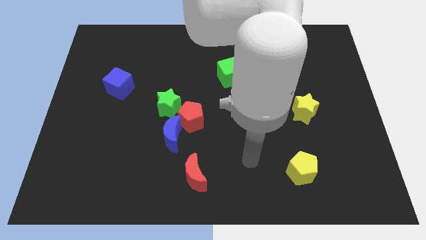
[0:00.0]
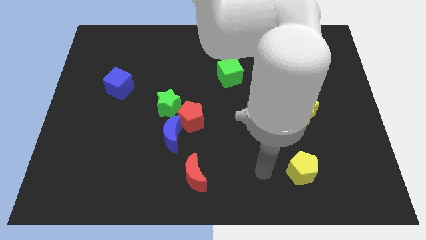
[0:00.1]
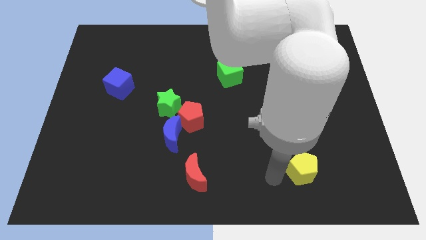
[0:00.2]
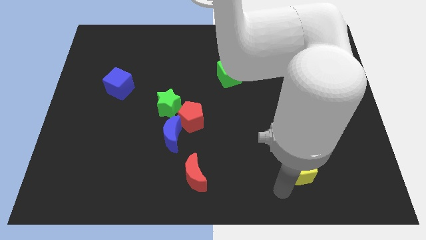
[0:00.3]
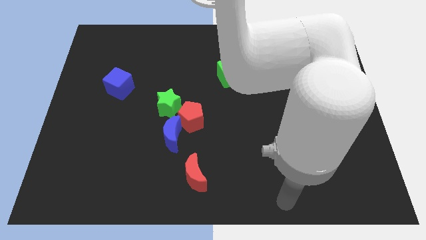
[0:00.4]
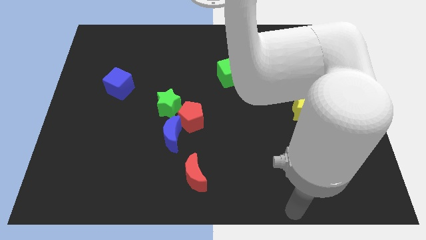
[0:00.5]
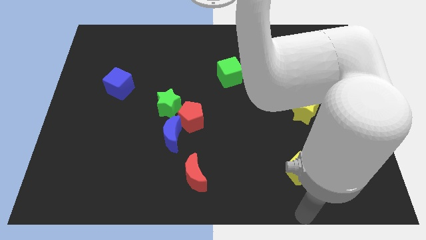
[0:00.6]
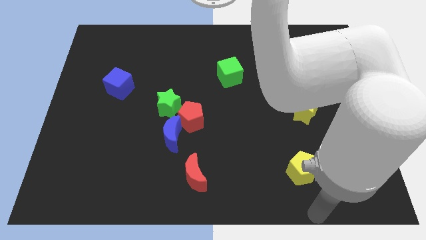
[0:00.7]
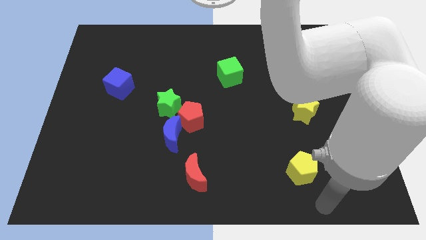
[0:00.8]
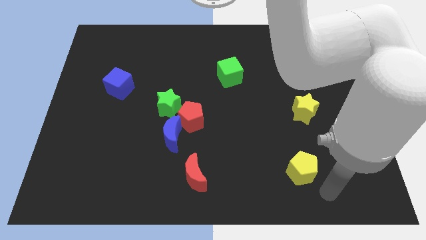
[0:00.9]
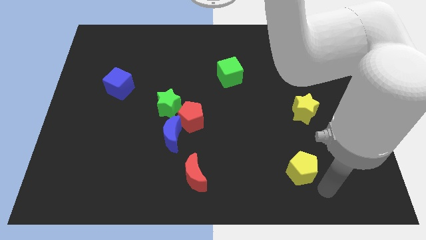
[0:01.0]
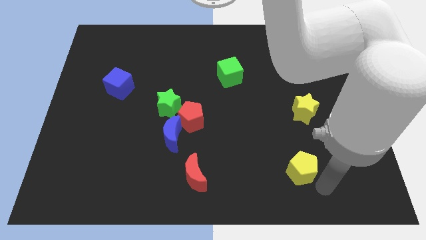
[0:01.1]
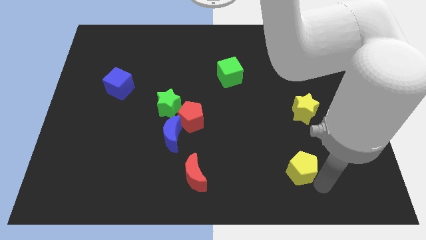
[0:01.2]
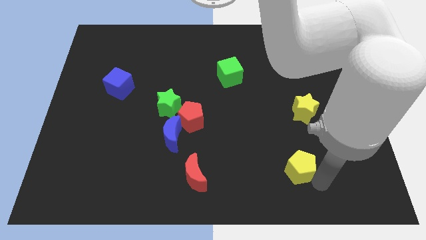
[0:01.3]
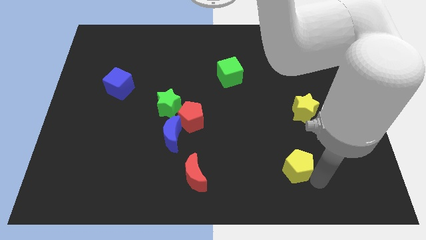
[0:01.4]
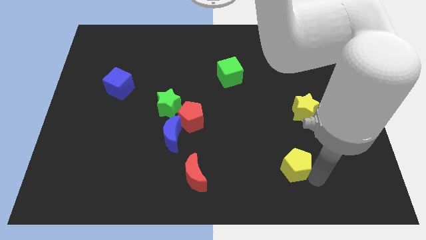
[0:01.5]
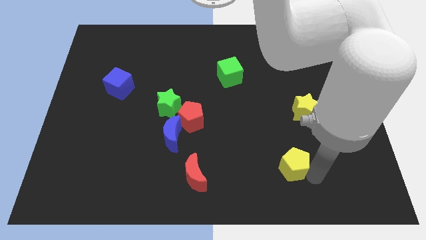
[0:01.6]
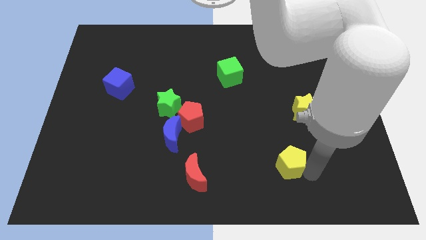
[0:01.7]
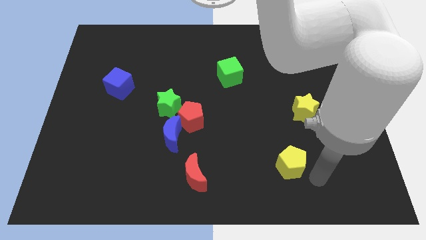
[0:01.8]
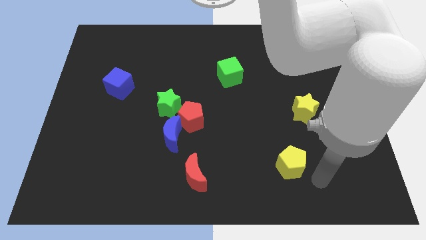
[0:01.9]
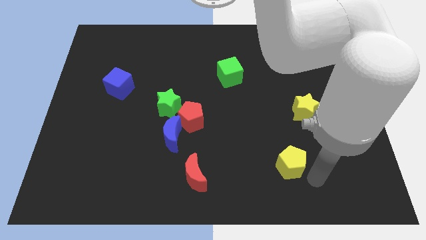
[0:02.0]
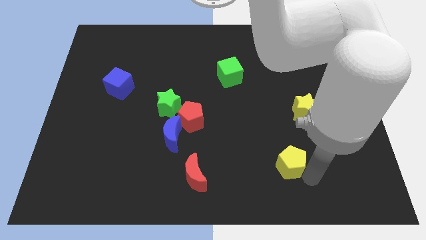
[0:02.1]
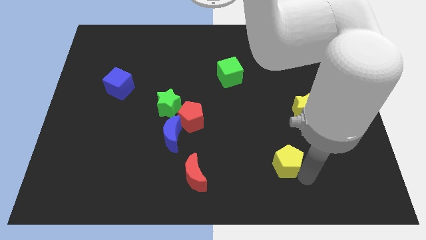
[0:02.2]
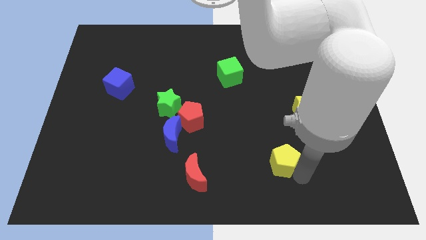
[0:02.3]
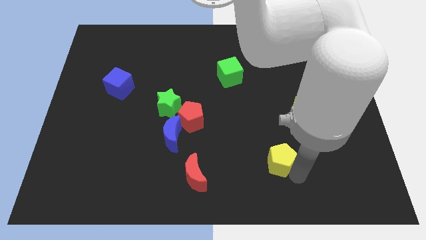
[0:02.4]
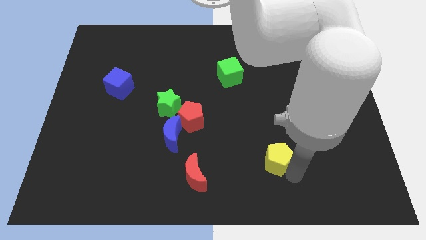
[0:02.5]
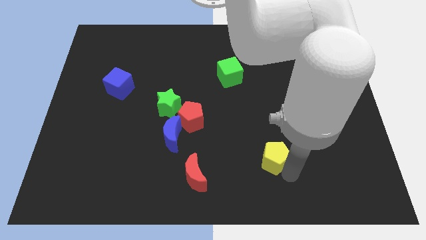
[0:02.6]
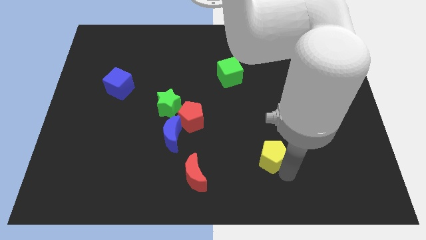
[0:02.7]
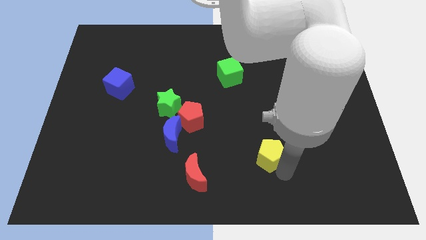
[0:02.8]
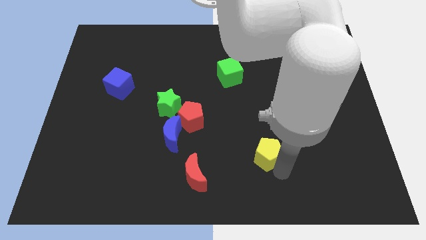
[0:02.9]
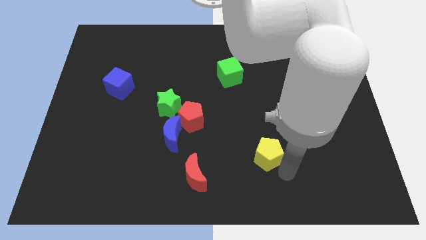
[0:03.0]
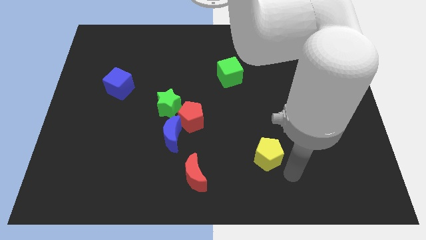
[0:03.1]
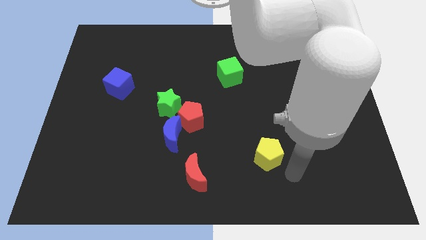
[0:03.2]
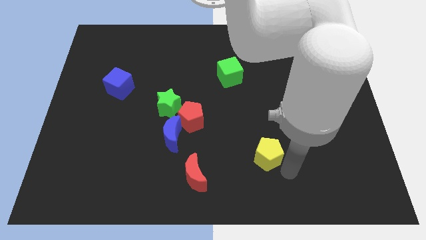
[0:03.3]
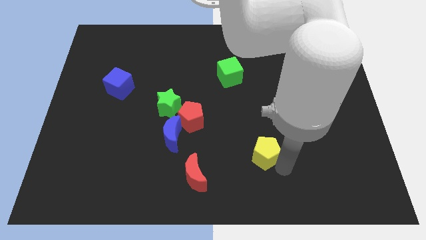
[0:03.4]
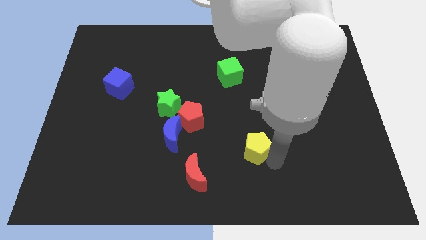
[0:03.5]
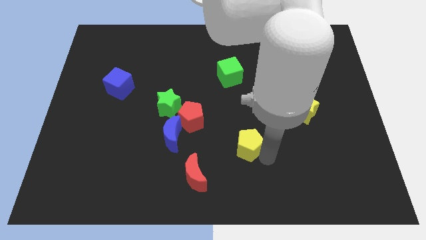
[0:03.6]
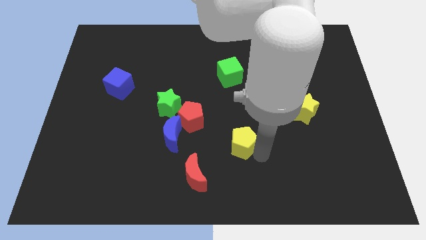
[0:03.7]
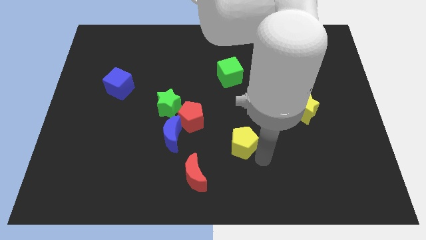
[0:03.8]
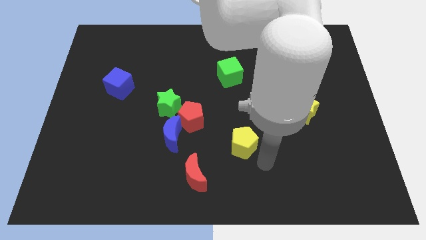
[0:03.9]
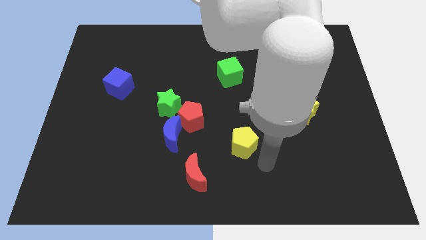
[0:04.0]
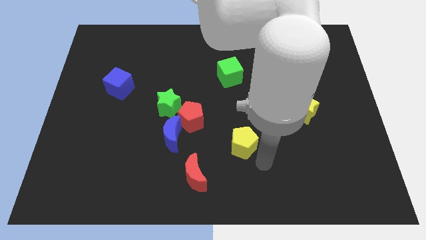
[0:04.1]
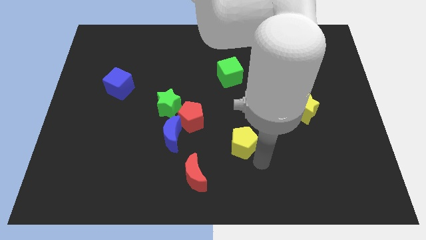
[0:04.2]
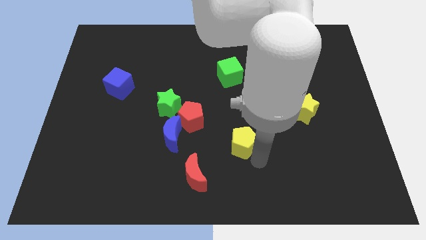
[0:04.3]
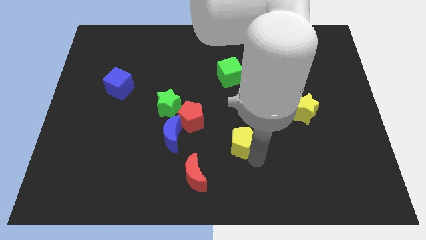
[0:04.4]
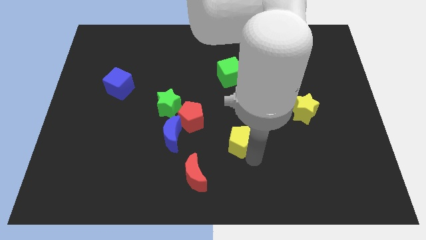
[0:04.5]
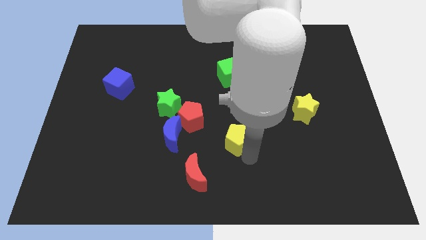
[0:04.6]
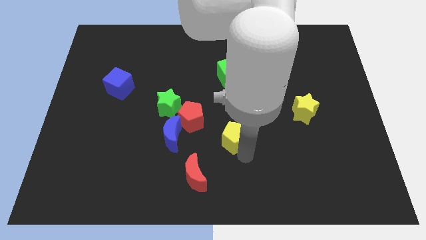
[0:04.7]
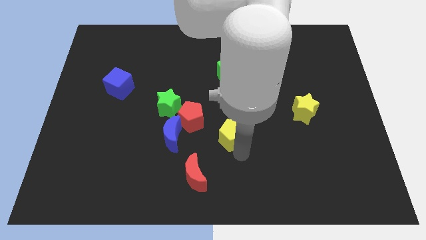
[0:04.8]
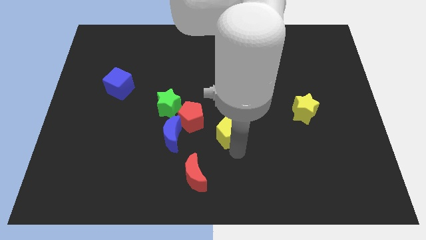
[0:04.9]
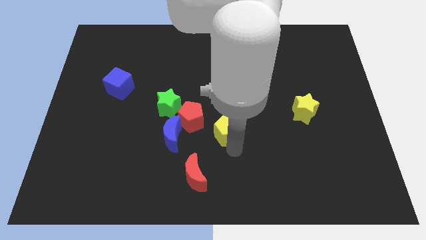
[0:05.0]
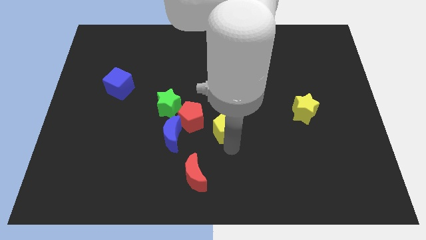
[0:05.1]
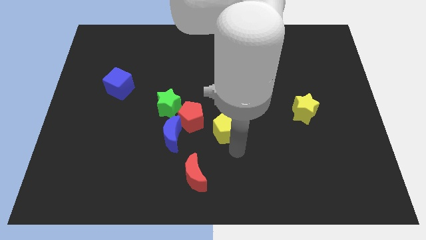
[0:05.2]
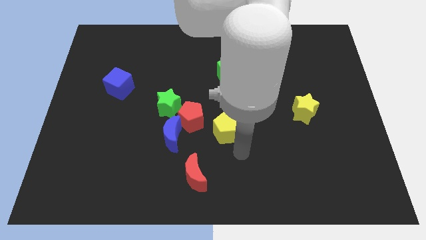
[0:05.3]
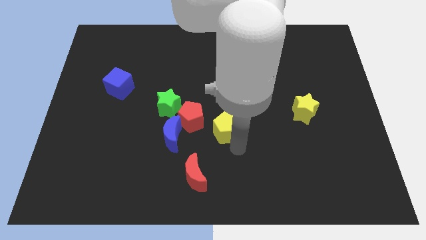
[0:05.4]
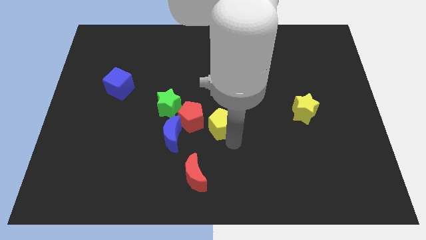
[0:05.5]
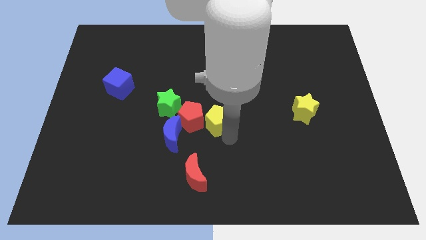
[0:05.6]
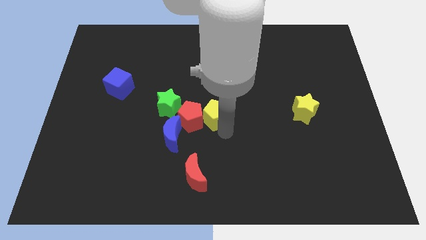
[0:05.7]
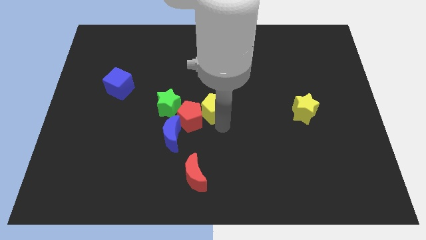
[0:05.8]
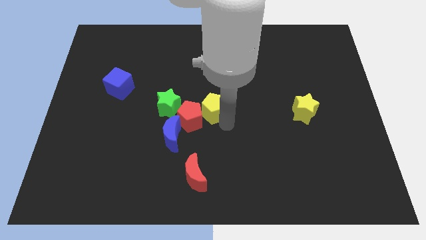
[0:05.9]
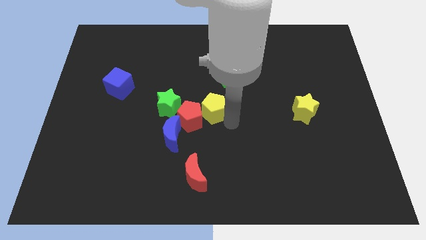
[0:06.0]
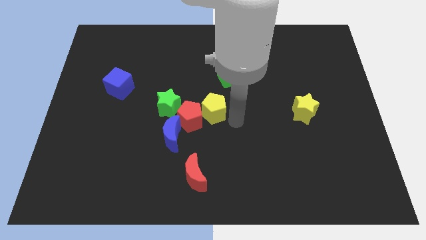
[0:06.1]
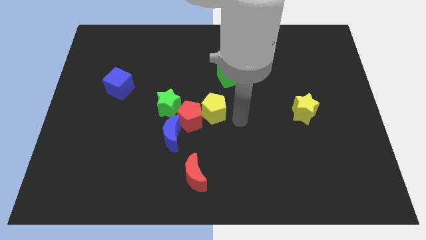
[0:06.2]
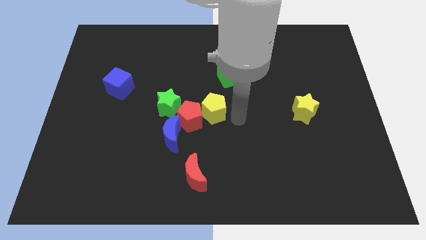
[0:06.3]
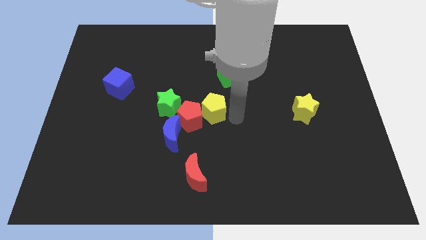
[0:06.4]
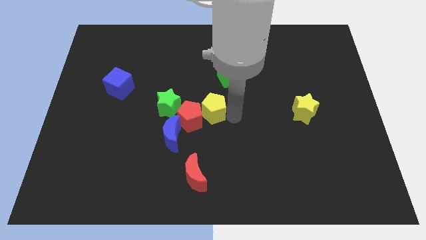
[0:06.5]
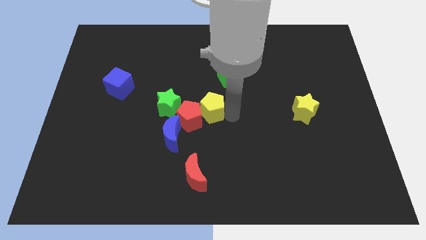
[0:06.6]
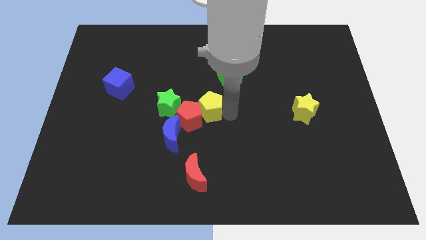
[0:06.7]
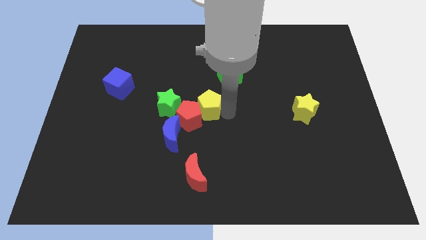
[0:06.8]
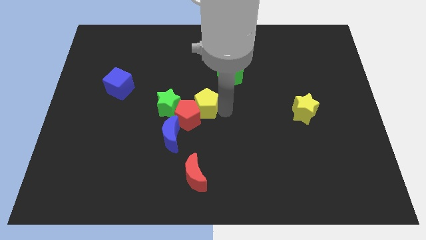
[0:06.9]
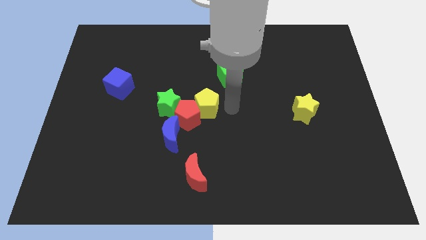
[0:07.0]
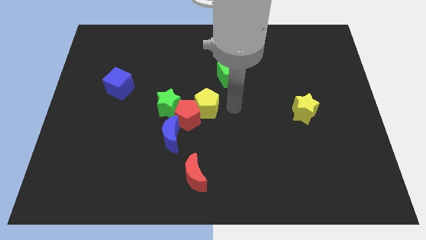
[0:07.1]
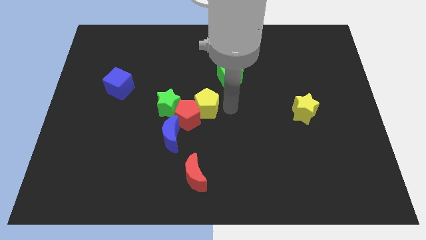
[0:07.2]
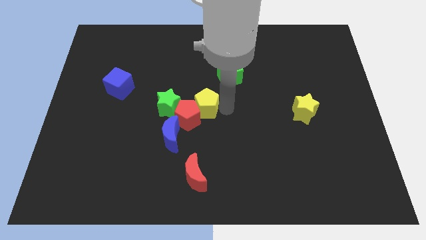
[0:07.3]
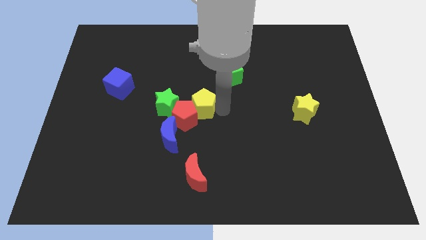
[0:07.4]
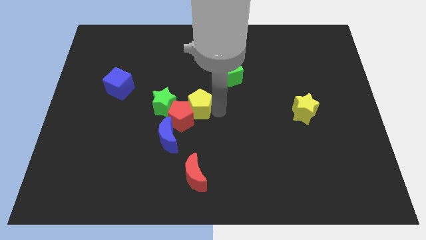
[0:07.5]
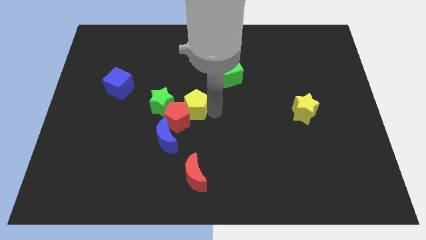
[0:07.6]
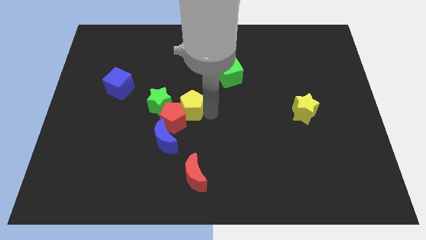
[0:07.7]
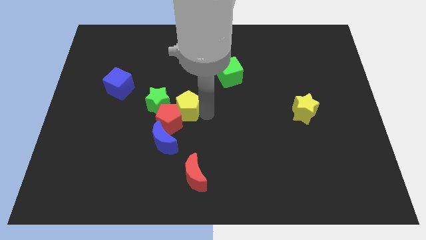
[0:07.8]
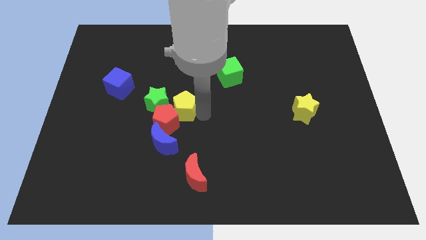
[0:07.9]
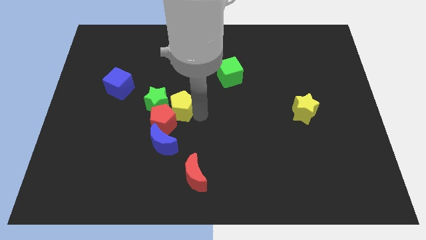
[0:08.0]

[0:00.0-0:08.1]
push the yellow pentagon to the green star
